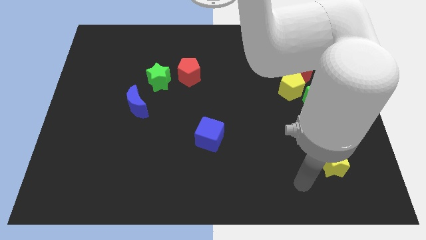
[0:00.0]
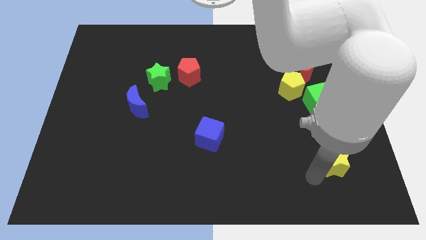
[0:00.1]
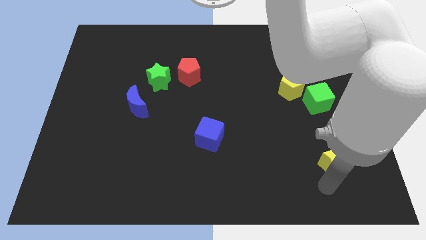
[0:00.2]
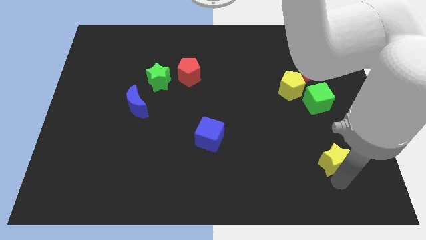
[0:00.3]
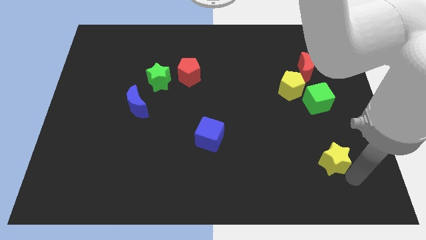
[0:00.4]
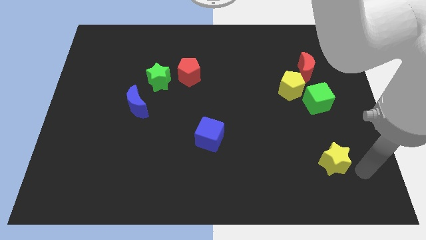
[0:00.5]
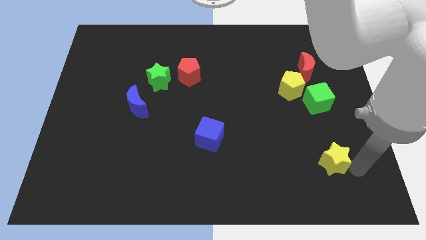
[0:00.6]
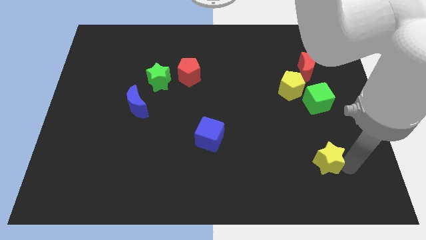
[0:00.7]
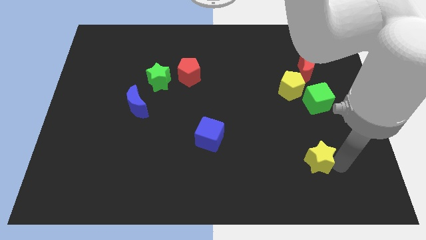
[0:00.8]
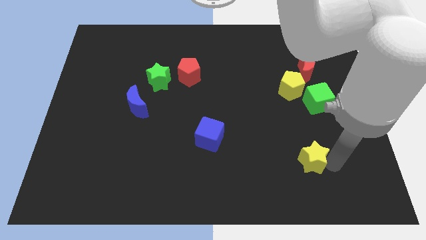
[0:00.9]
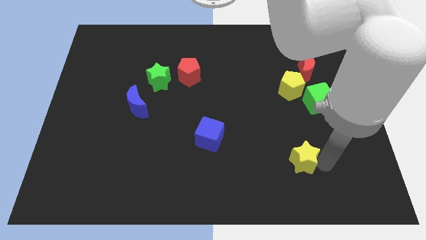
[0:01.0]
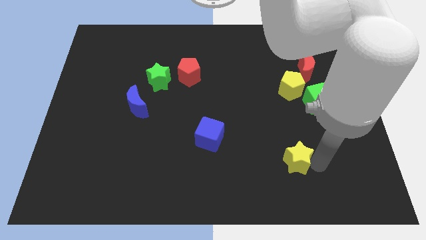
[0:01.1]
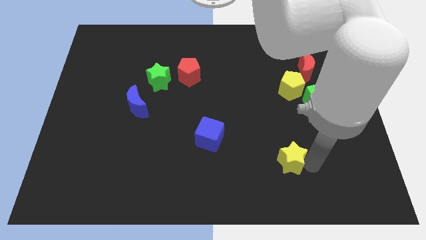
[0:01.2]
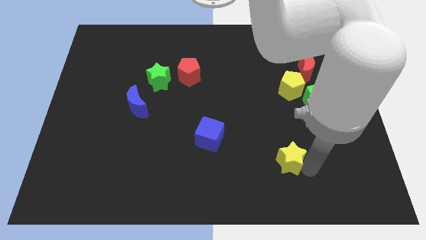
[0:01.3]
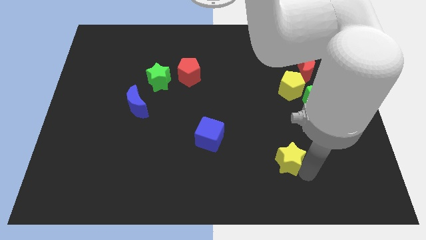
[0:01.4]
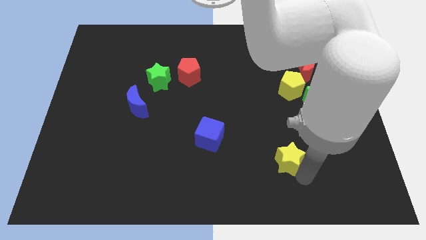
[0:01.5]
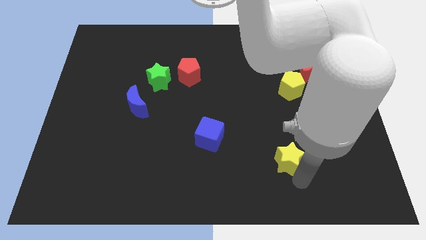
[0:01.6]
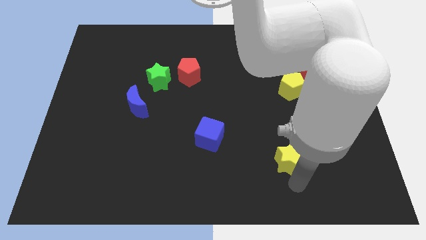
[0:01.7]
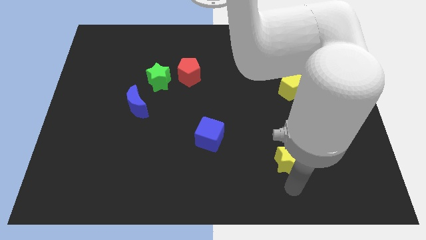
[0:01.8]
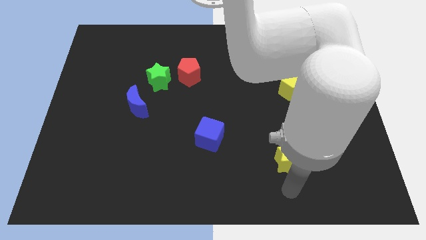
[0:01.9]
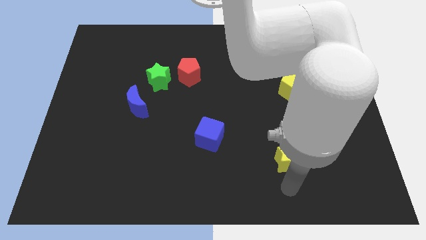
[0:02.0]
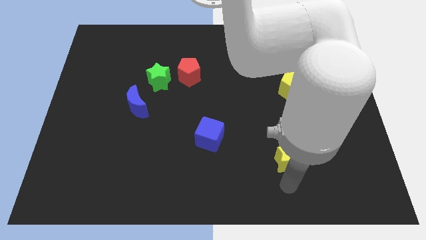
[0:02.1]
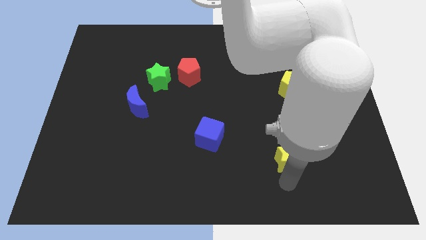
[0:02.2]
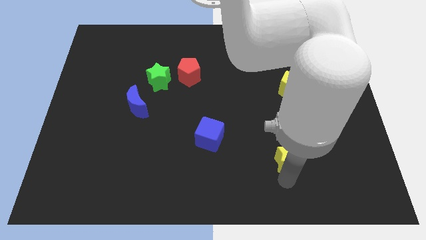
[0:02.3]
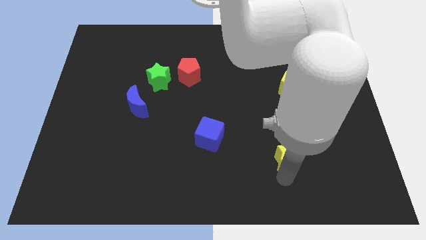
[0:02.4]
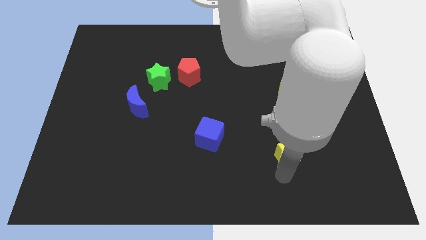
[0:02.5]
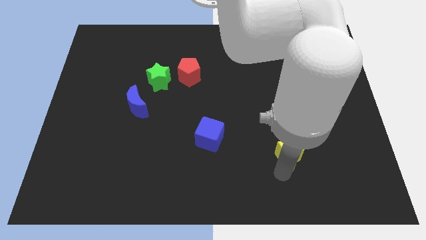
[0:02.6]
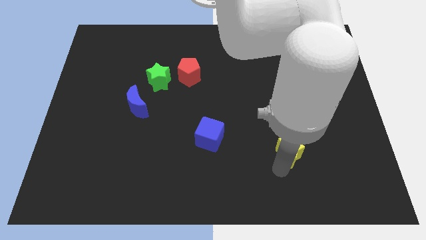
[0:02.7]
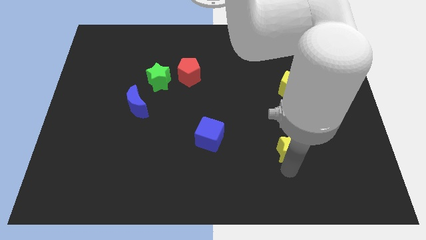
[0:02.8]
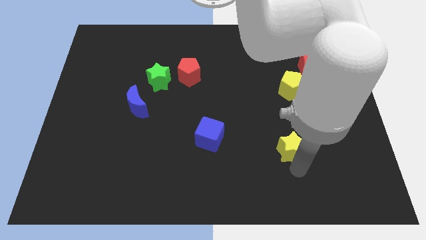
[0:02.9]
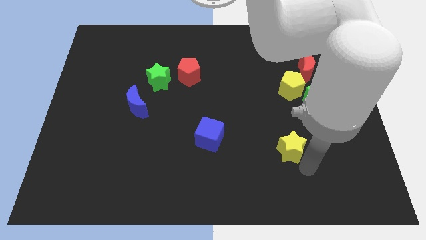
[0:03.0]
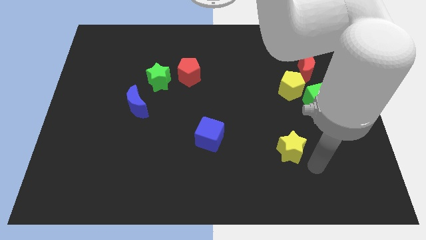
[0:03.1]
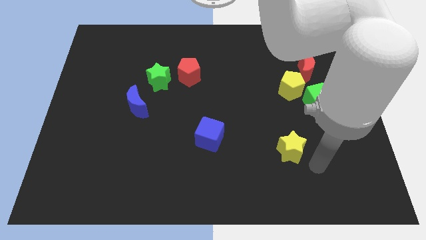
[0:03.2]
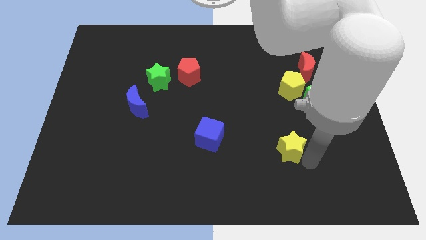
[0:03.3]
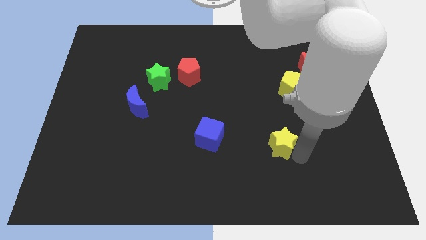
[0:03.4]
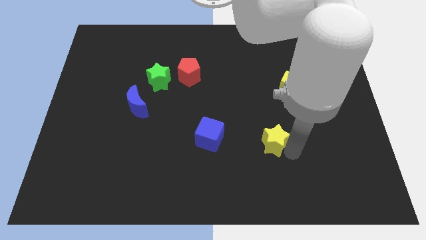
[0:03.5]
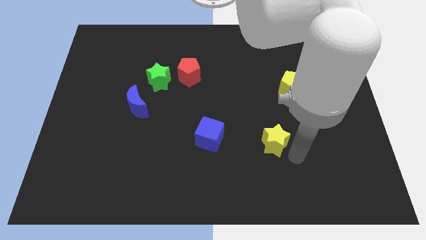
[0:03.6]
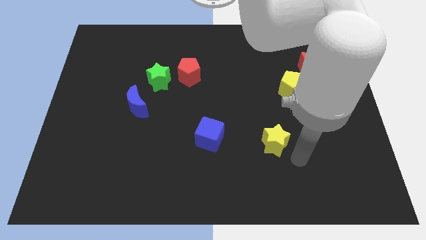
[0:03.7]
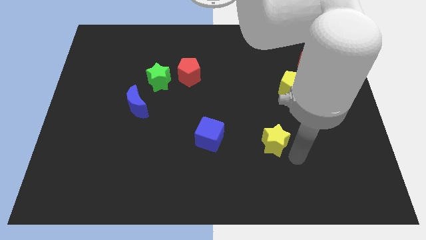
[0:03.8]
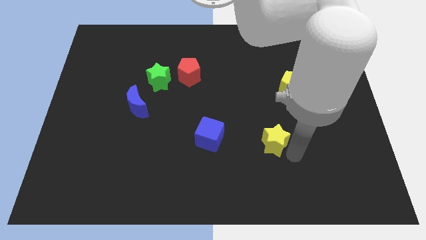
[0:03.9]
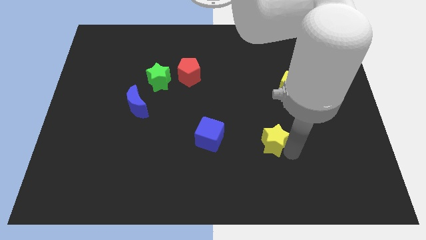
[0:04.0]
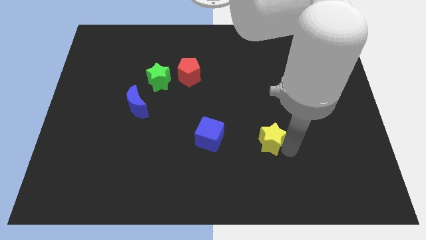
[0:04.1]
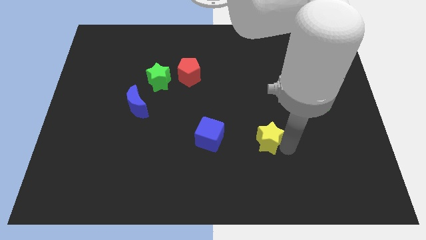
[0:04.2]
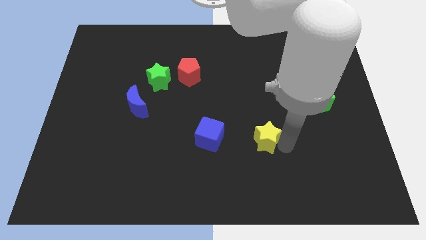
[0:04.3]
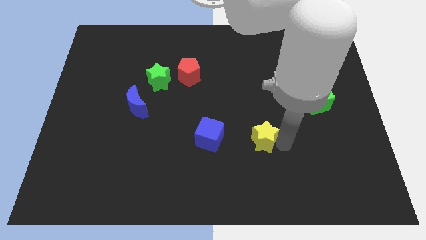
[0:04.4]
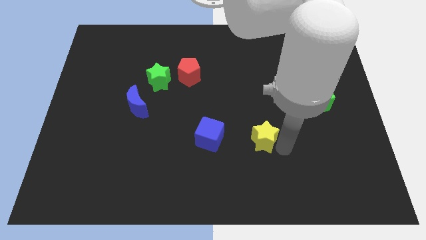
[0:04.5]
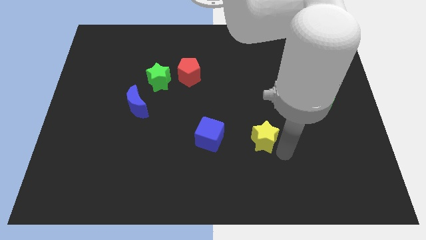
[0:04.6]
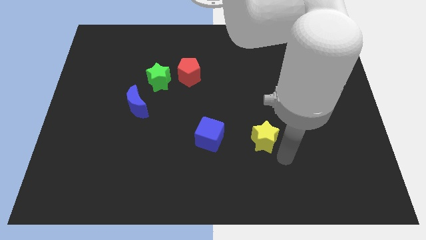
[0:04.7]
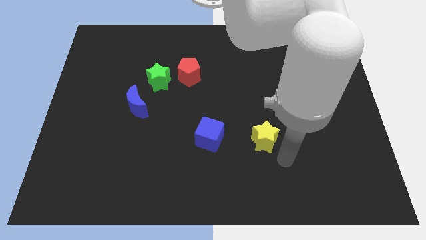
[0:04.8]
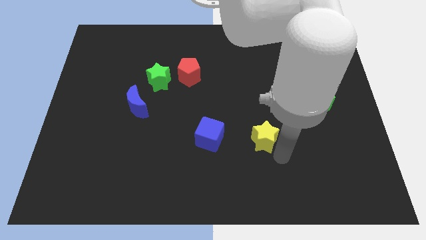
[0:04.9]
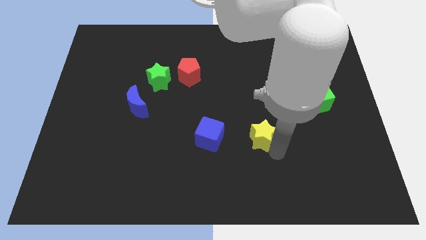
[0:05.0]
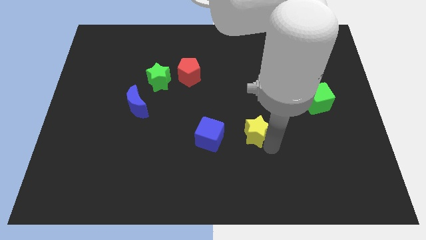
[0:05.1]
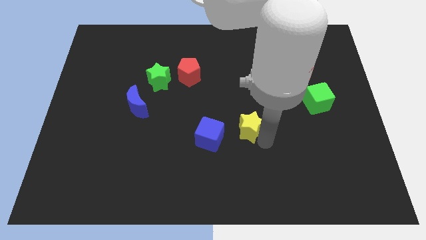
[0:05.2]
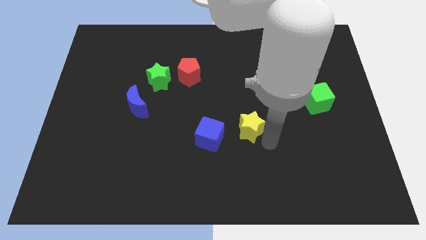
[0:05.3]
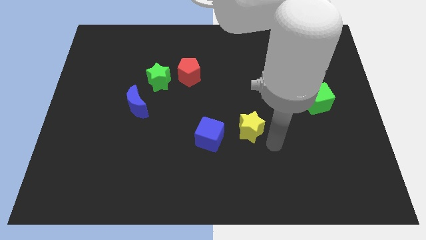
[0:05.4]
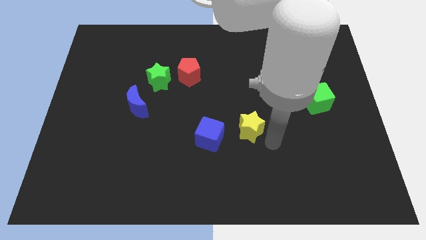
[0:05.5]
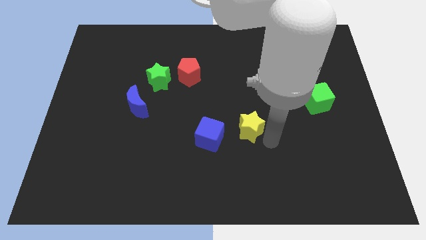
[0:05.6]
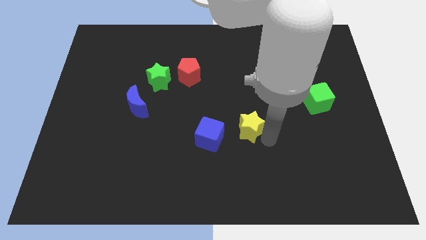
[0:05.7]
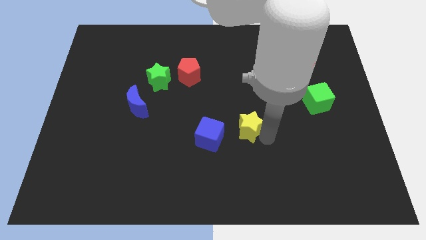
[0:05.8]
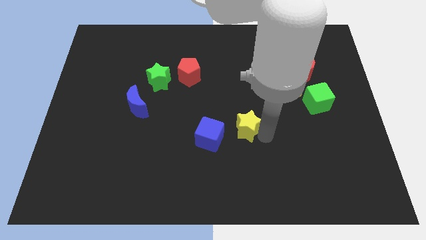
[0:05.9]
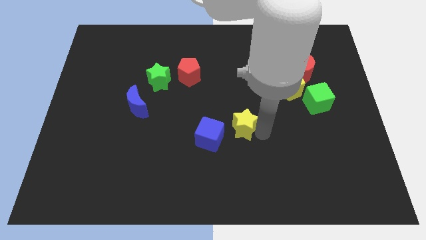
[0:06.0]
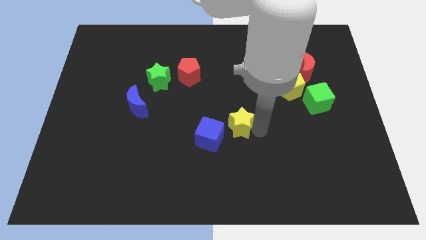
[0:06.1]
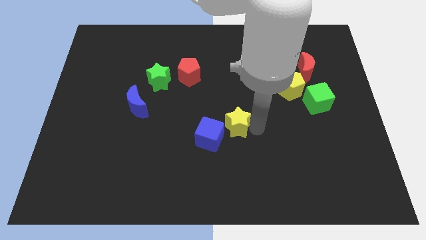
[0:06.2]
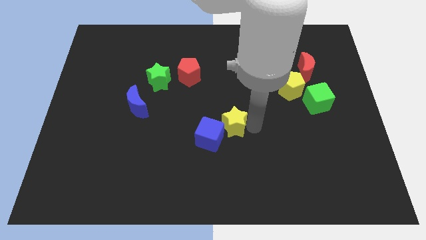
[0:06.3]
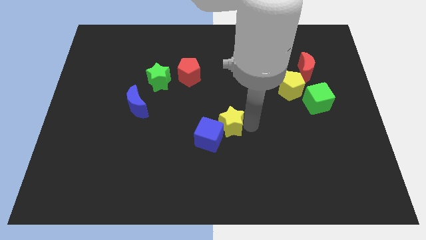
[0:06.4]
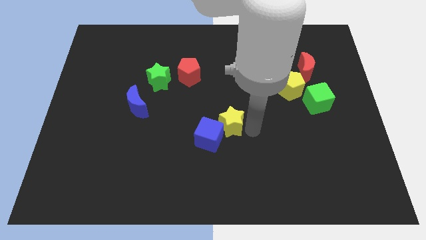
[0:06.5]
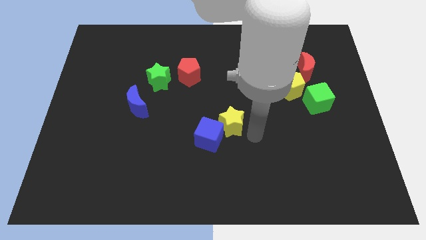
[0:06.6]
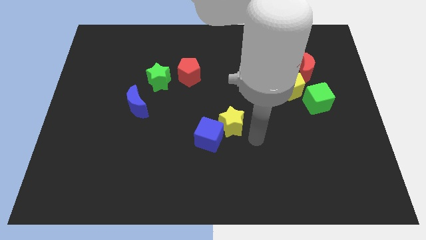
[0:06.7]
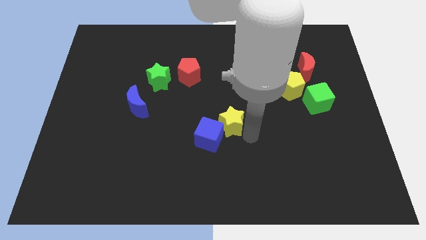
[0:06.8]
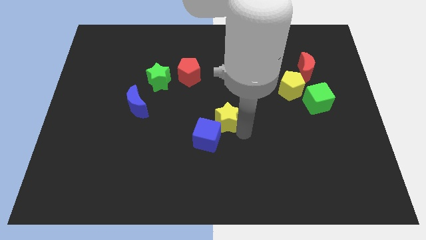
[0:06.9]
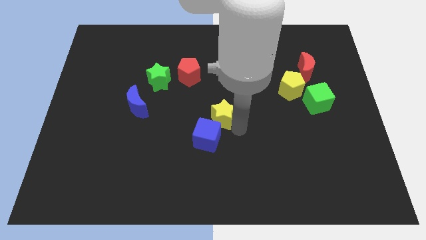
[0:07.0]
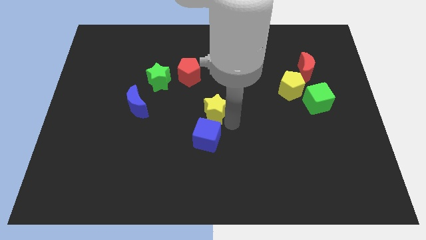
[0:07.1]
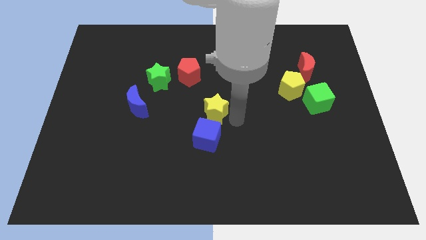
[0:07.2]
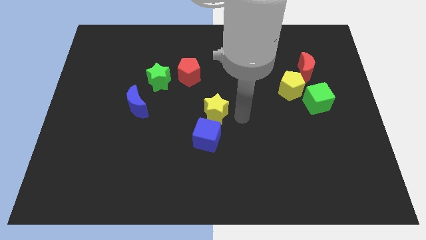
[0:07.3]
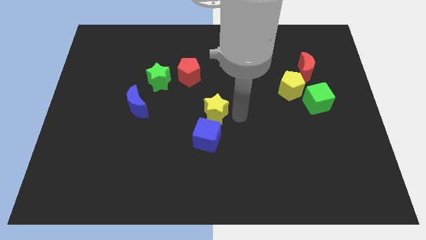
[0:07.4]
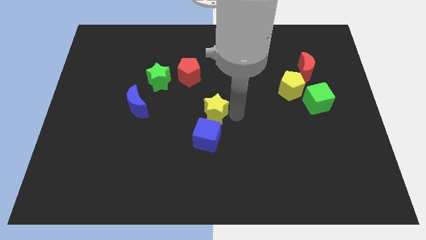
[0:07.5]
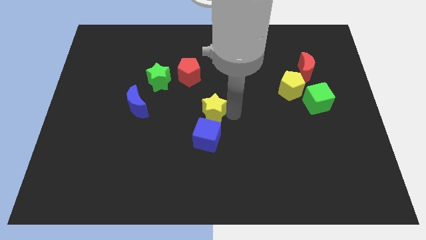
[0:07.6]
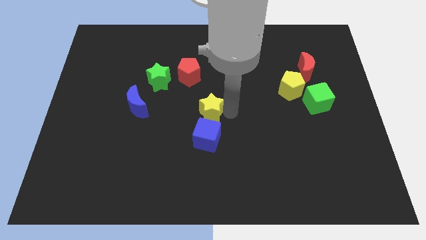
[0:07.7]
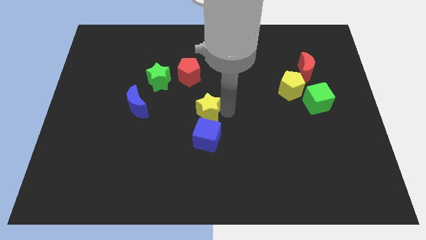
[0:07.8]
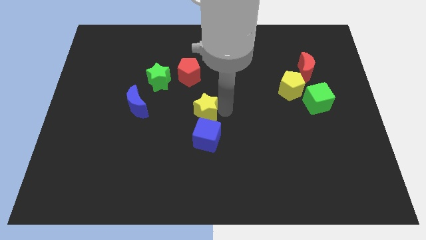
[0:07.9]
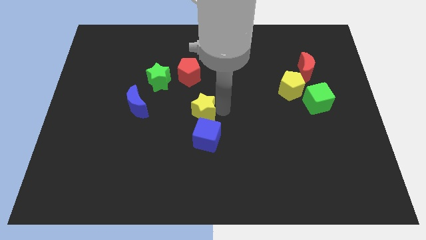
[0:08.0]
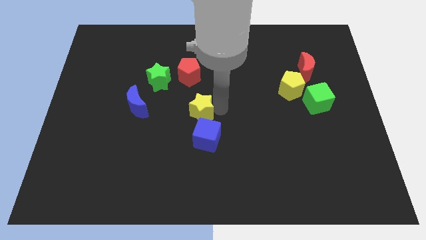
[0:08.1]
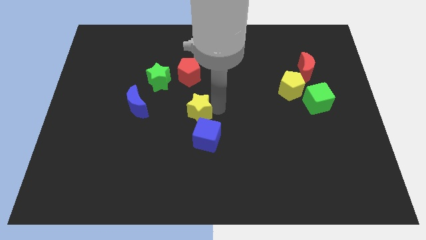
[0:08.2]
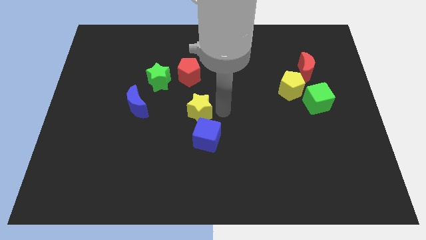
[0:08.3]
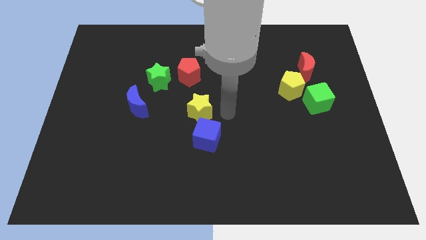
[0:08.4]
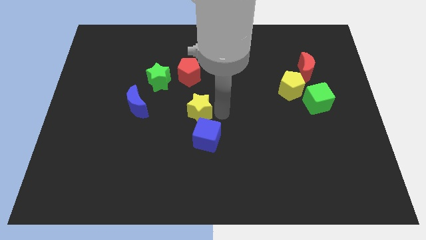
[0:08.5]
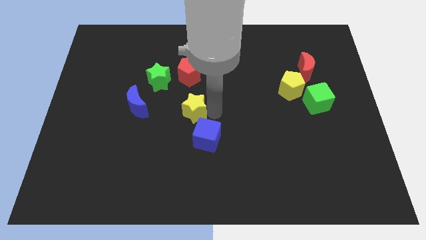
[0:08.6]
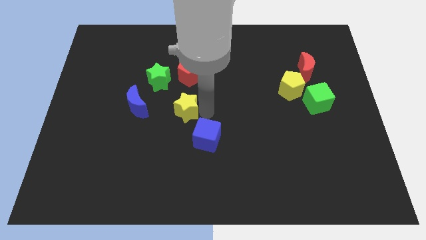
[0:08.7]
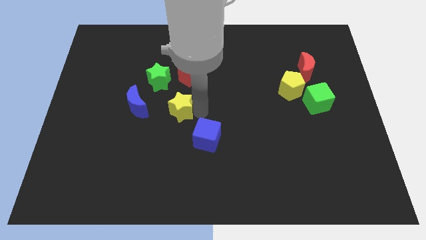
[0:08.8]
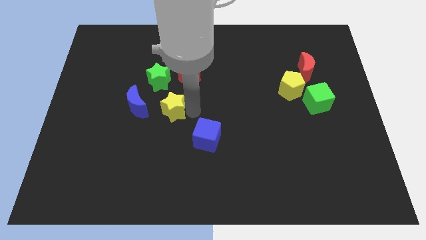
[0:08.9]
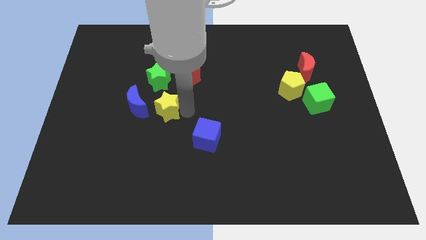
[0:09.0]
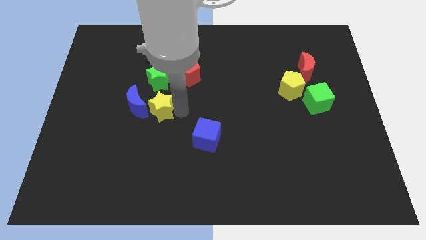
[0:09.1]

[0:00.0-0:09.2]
push the yellow star to the blue moon
